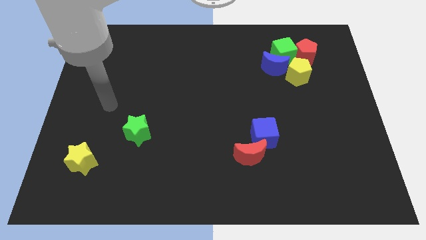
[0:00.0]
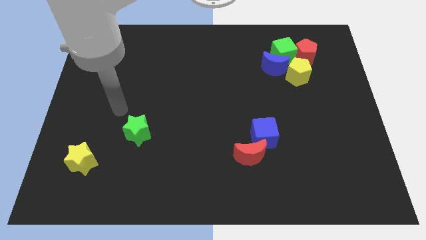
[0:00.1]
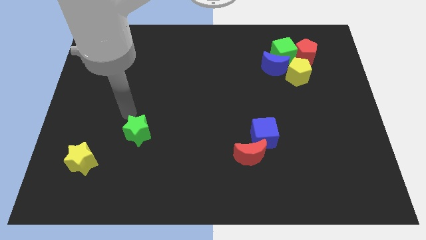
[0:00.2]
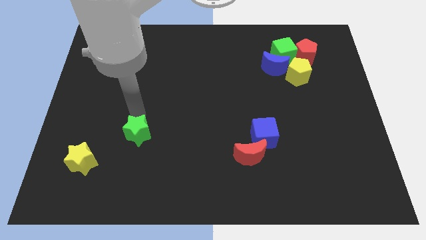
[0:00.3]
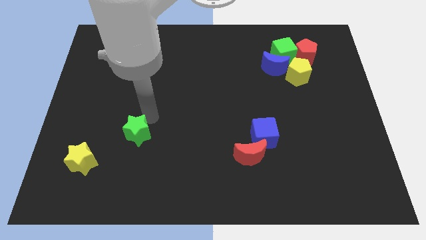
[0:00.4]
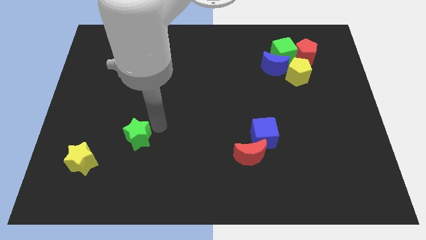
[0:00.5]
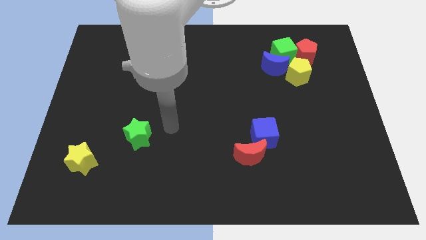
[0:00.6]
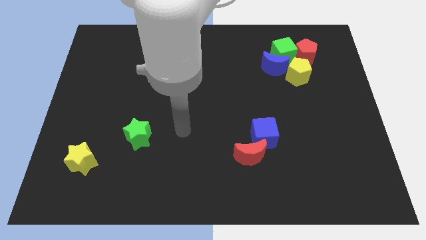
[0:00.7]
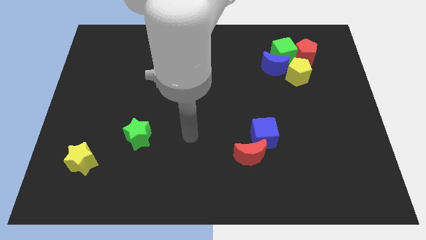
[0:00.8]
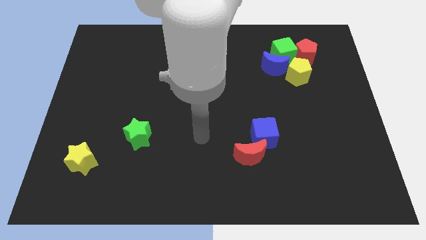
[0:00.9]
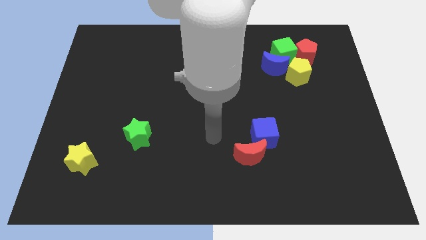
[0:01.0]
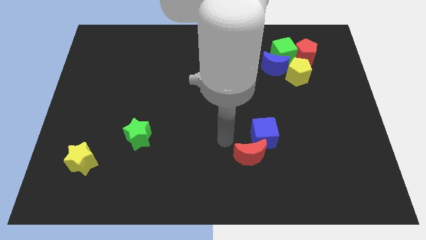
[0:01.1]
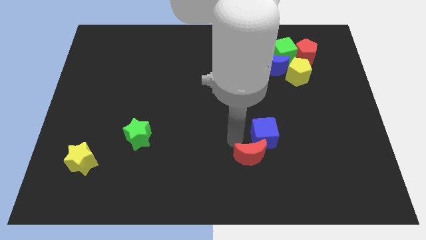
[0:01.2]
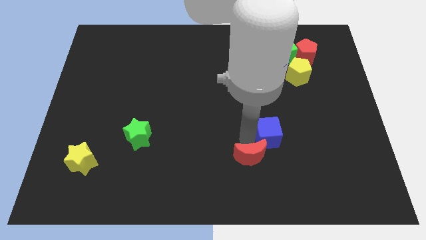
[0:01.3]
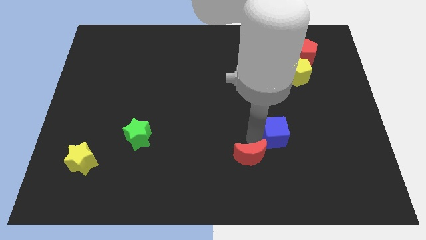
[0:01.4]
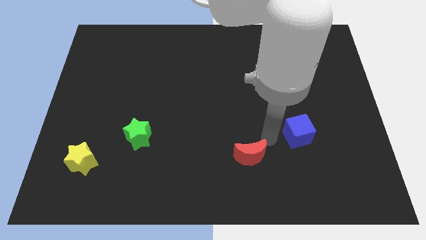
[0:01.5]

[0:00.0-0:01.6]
separate the red moon from the blue cube

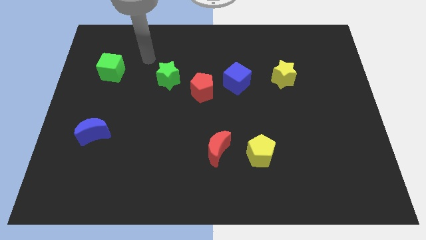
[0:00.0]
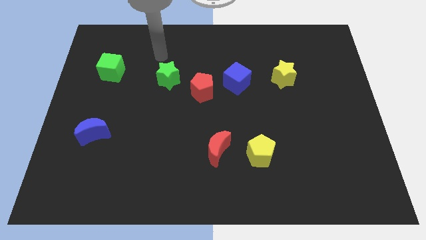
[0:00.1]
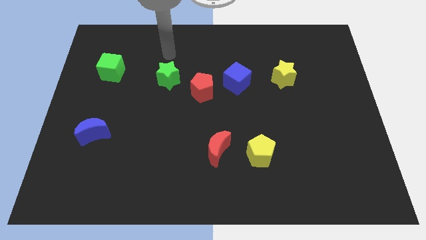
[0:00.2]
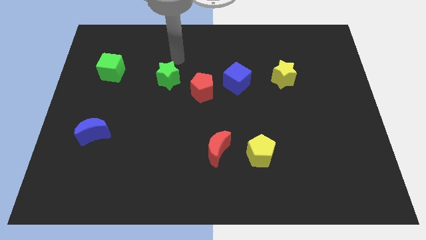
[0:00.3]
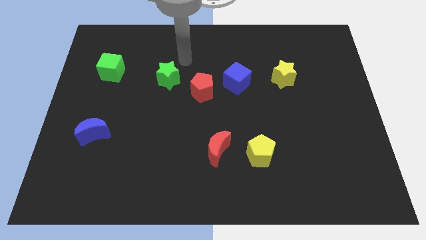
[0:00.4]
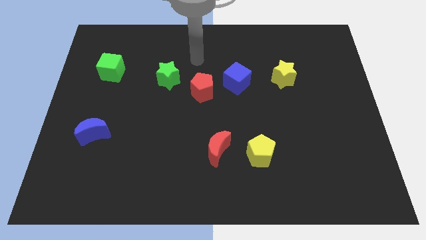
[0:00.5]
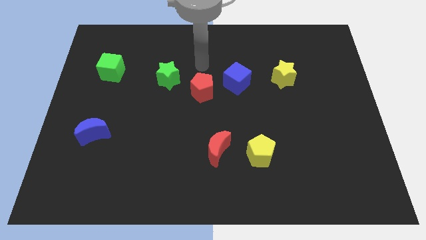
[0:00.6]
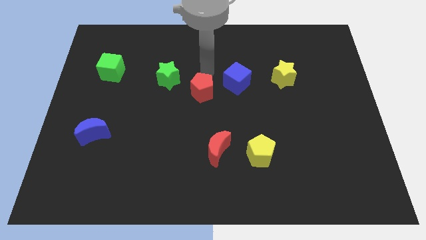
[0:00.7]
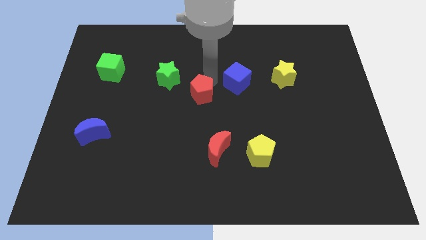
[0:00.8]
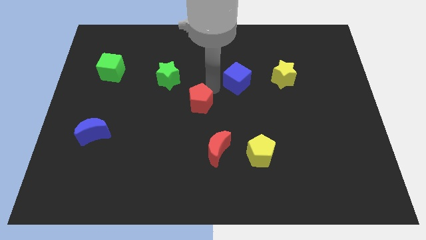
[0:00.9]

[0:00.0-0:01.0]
separate the blue cube from the red pentagon

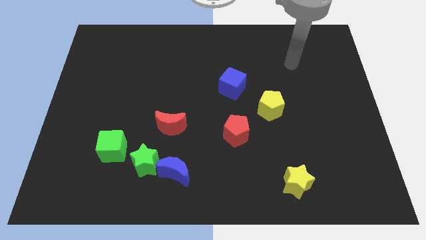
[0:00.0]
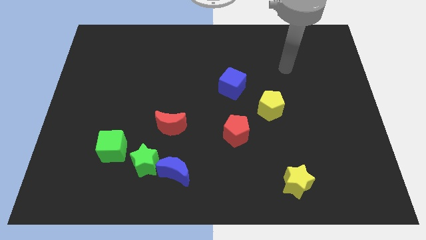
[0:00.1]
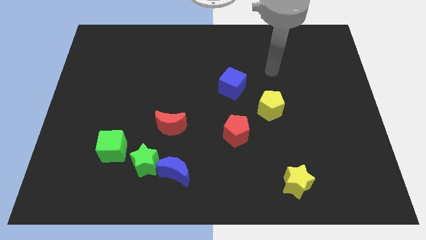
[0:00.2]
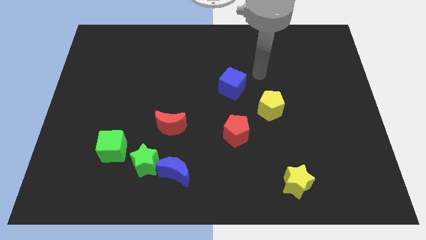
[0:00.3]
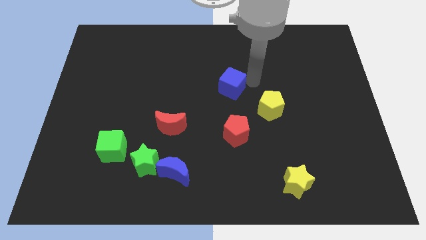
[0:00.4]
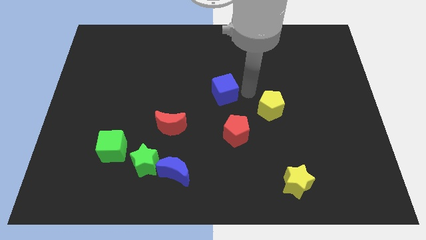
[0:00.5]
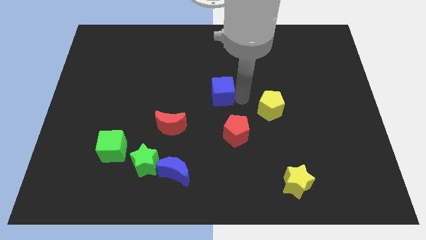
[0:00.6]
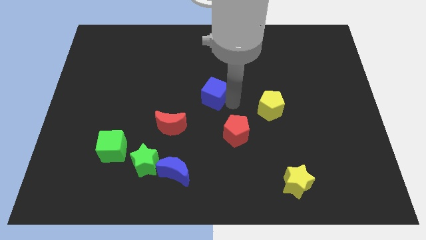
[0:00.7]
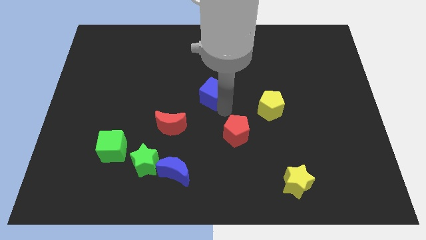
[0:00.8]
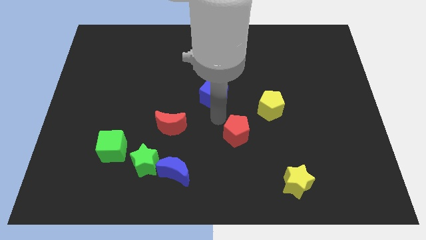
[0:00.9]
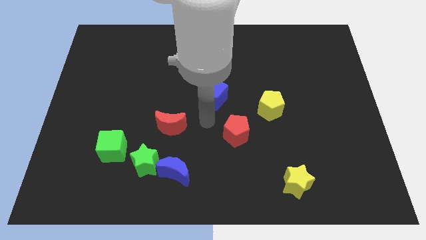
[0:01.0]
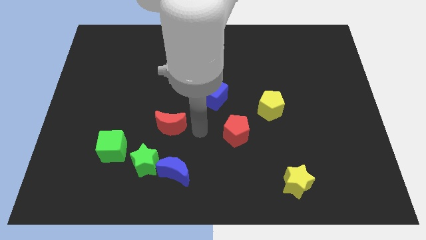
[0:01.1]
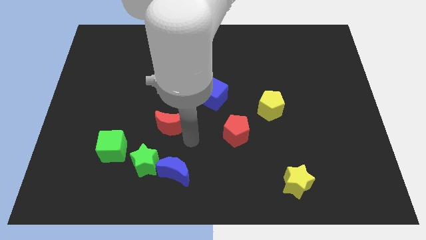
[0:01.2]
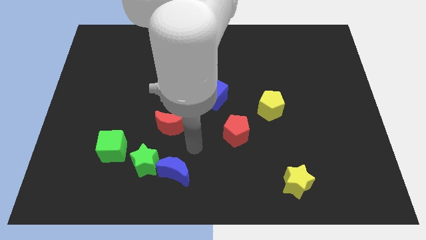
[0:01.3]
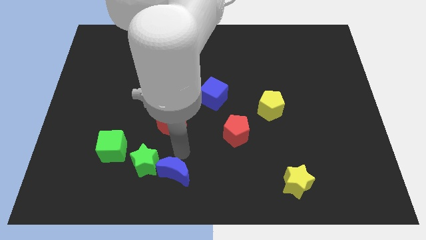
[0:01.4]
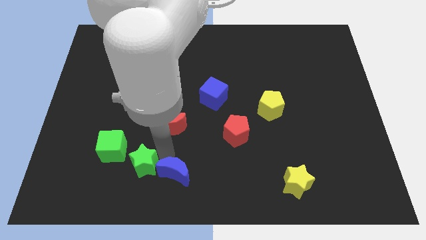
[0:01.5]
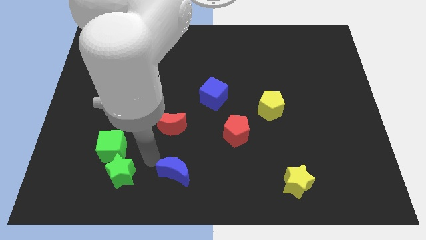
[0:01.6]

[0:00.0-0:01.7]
move the blue moon away from the green star

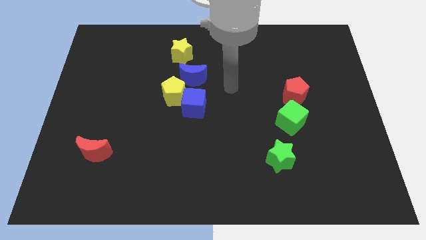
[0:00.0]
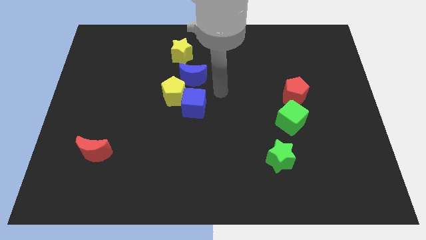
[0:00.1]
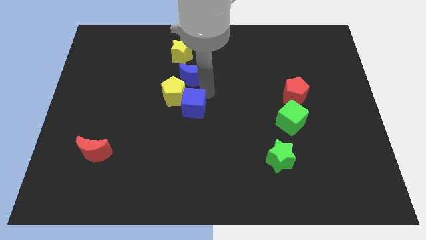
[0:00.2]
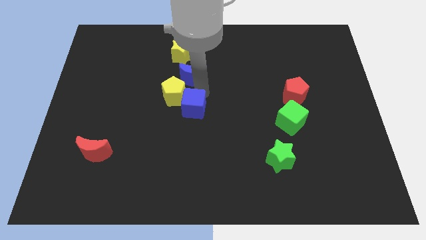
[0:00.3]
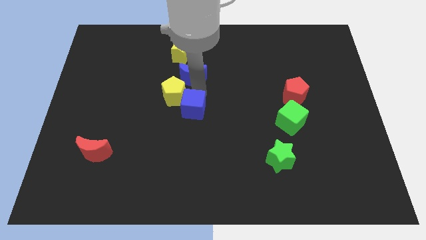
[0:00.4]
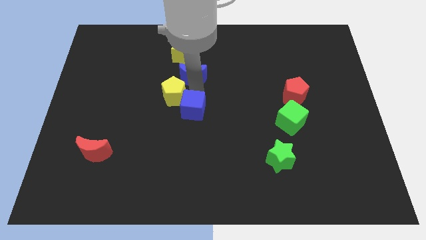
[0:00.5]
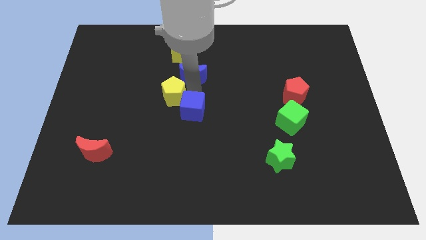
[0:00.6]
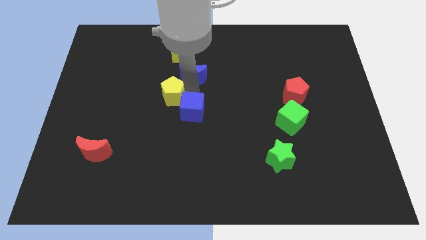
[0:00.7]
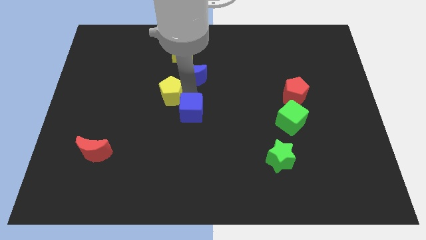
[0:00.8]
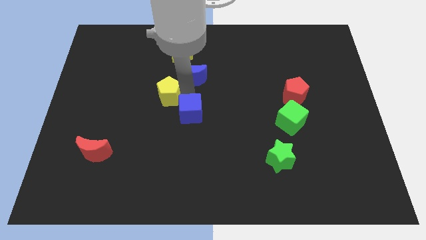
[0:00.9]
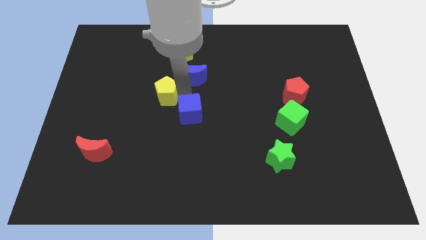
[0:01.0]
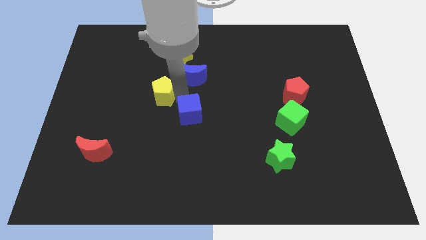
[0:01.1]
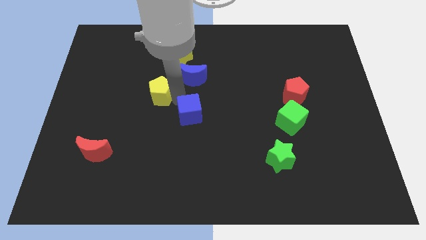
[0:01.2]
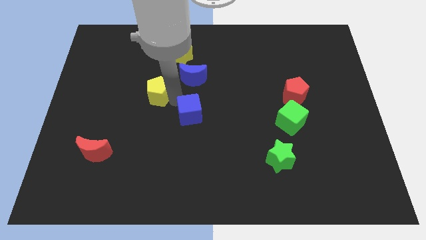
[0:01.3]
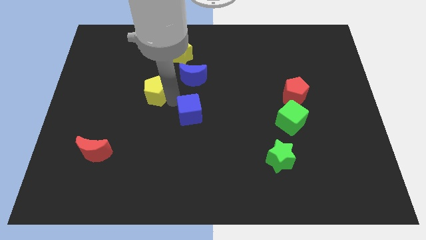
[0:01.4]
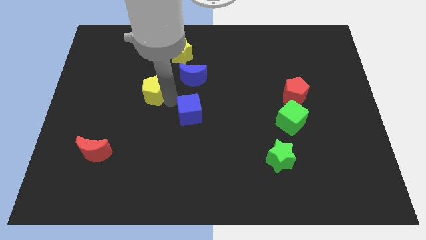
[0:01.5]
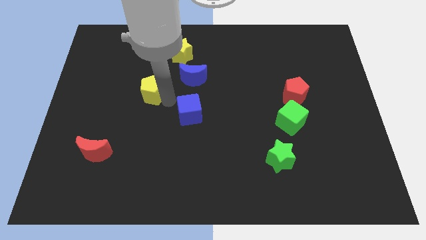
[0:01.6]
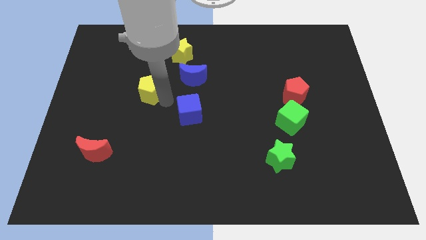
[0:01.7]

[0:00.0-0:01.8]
separate the yellow pentagon from the blue cube and blue moon

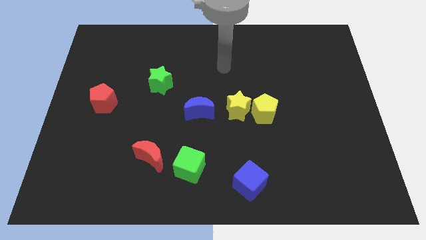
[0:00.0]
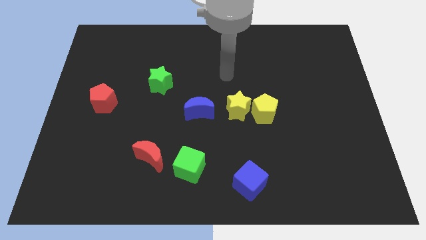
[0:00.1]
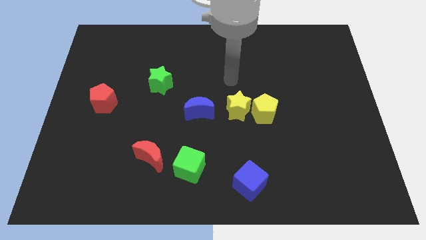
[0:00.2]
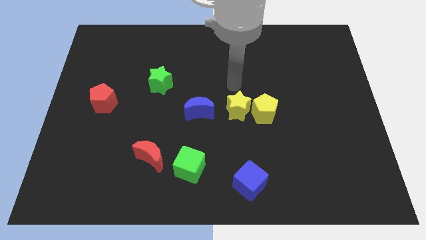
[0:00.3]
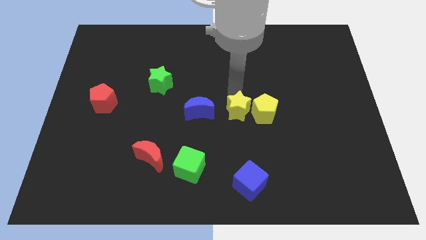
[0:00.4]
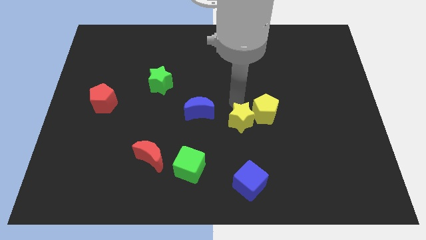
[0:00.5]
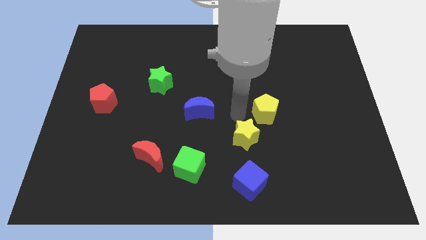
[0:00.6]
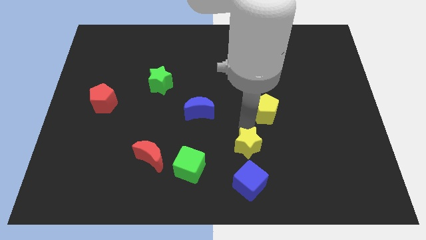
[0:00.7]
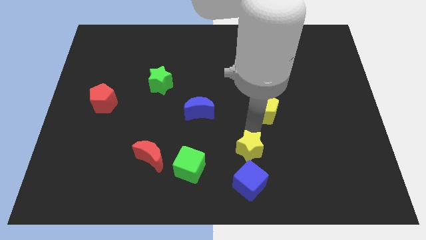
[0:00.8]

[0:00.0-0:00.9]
pull the yellow pentagon apart from the yellow star

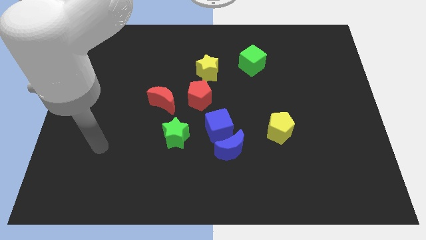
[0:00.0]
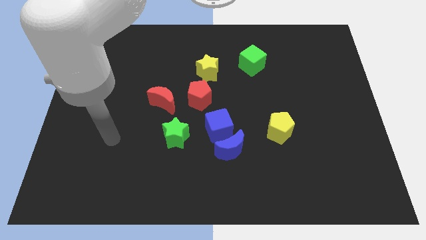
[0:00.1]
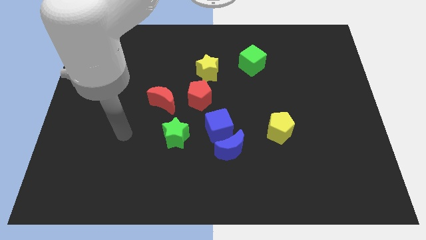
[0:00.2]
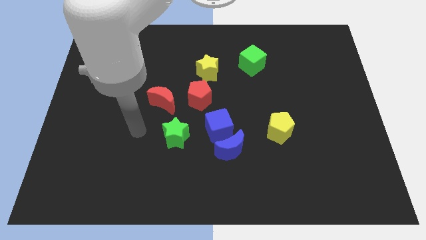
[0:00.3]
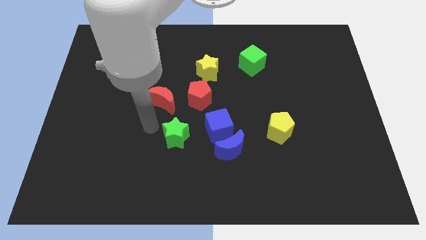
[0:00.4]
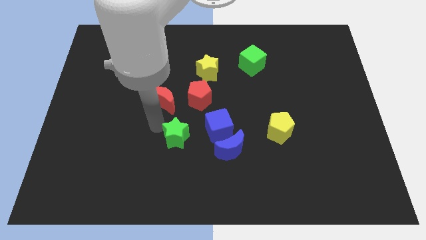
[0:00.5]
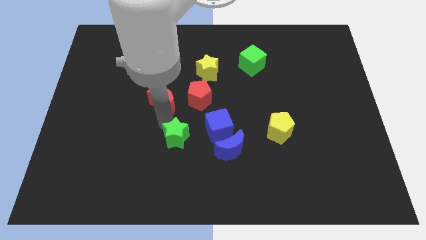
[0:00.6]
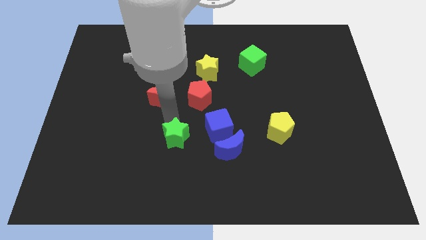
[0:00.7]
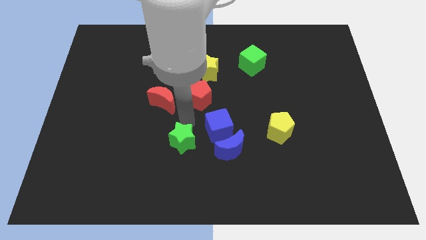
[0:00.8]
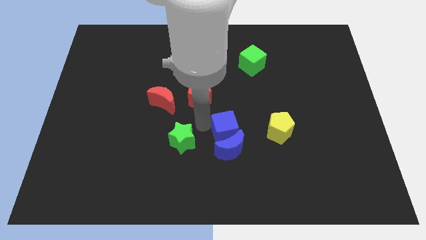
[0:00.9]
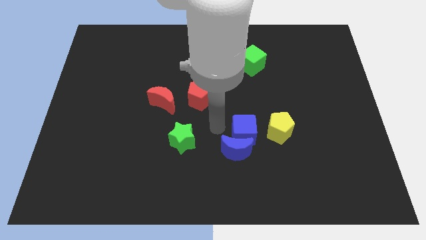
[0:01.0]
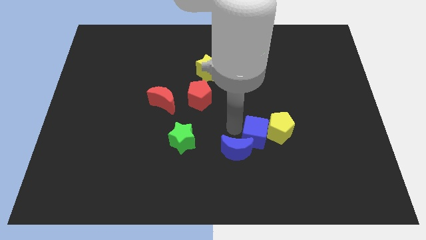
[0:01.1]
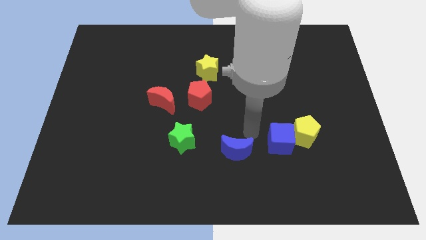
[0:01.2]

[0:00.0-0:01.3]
move the blue moon away from the blue cube

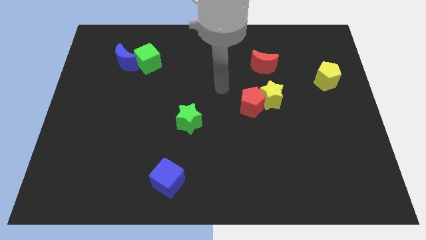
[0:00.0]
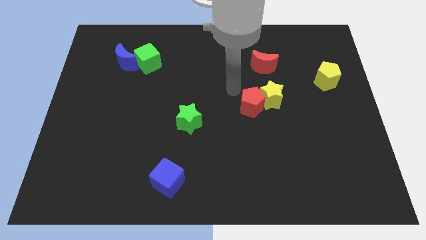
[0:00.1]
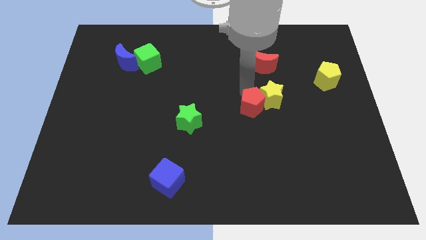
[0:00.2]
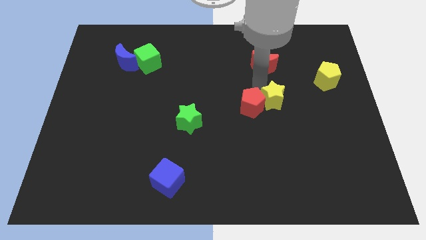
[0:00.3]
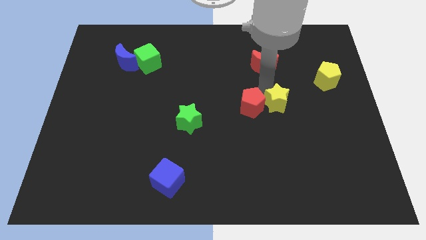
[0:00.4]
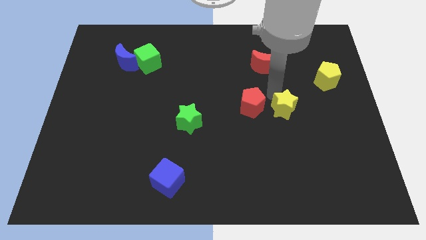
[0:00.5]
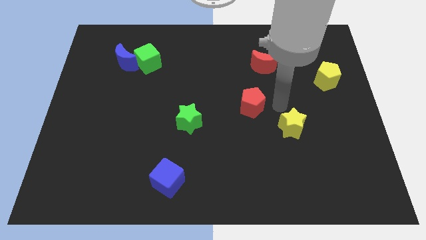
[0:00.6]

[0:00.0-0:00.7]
separate the red pentagon from the yellow star

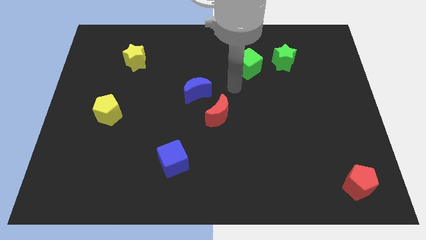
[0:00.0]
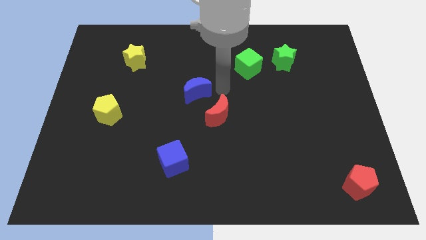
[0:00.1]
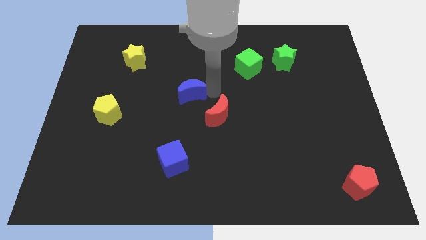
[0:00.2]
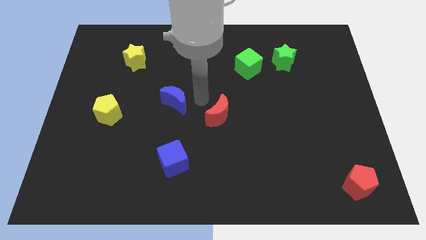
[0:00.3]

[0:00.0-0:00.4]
separate the red moon from the blue moon
